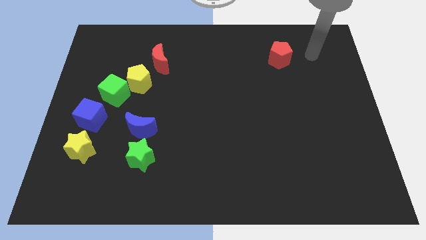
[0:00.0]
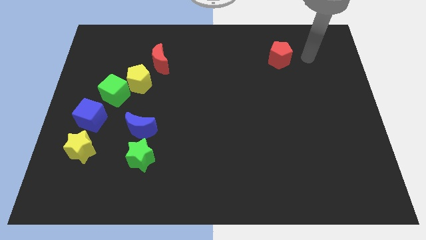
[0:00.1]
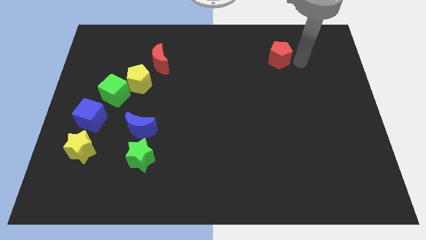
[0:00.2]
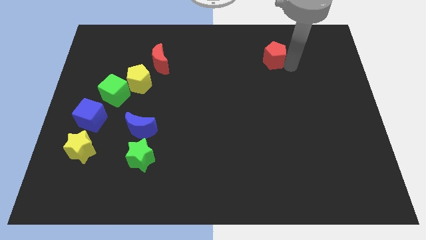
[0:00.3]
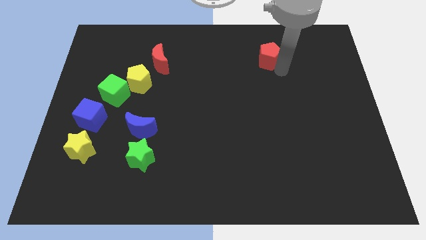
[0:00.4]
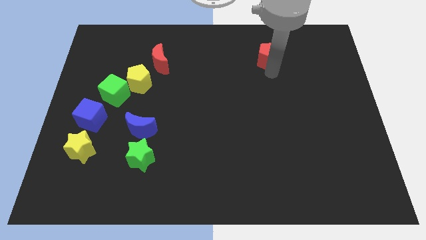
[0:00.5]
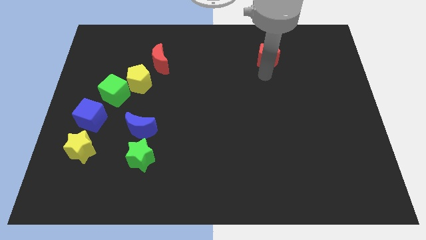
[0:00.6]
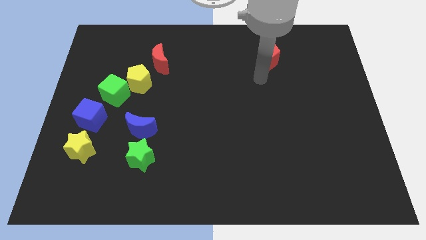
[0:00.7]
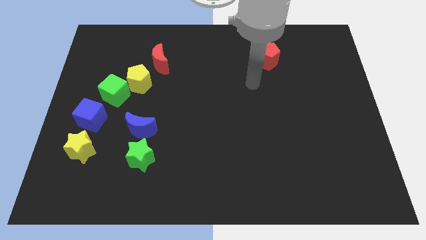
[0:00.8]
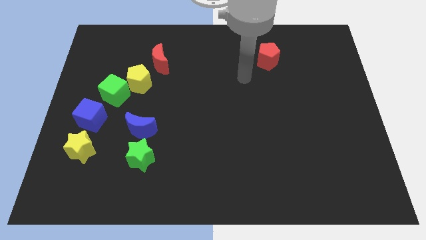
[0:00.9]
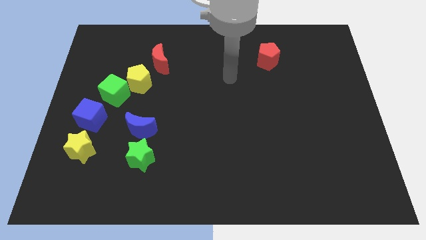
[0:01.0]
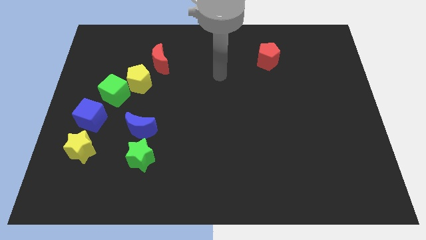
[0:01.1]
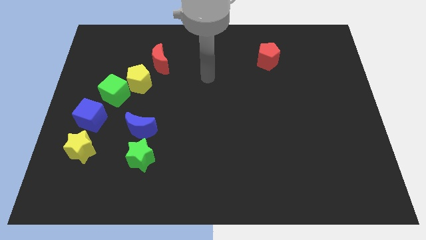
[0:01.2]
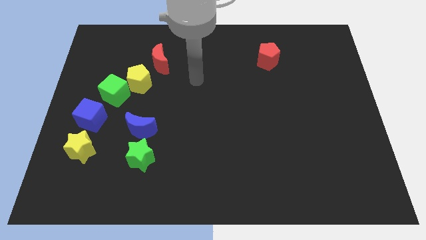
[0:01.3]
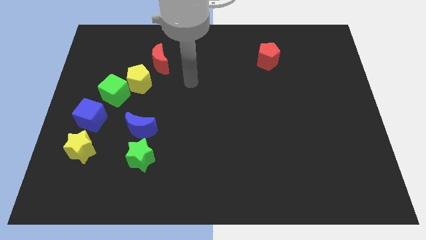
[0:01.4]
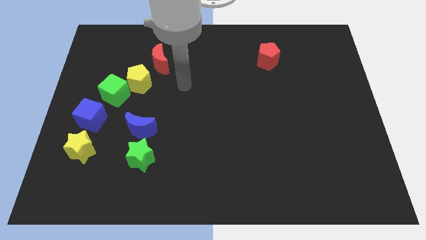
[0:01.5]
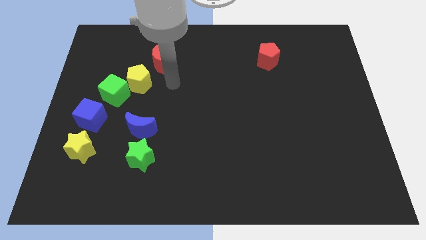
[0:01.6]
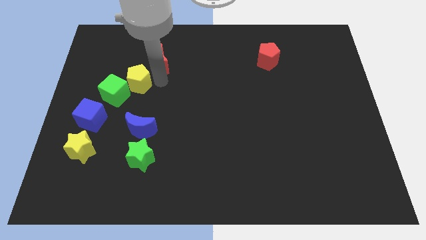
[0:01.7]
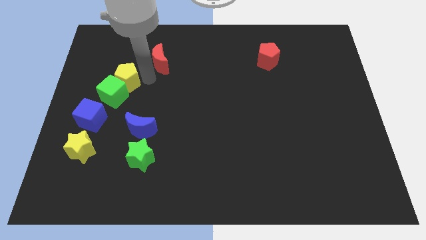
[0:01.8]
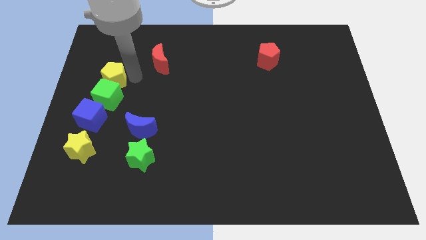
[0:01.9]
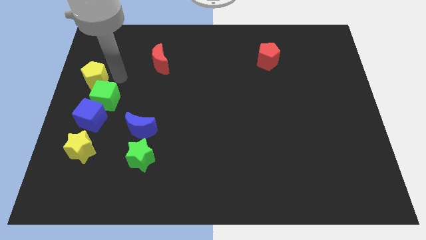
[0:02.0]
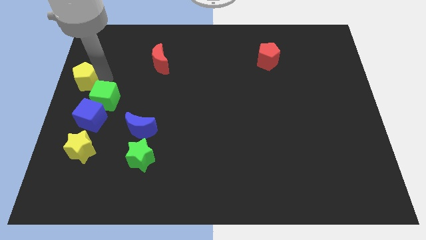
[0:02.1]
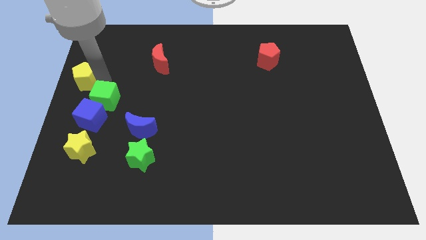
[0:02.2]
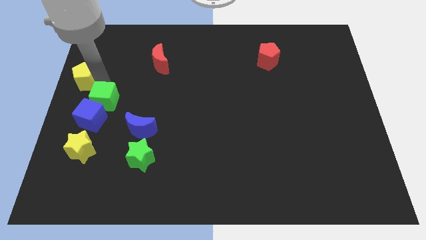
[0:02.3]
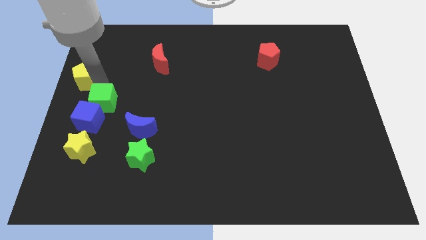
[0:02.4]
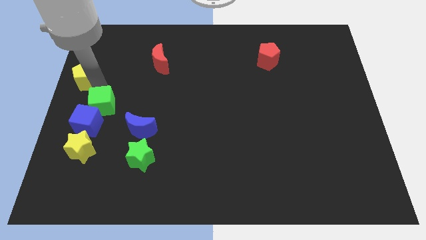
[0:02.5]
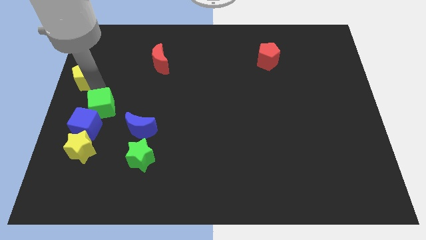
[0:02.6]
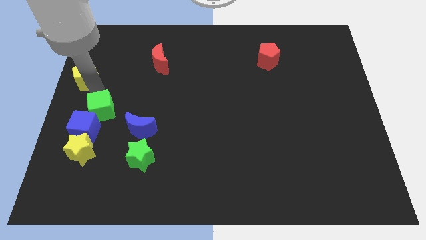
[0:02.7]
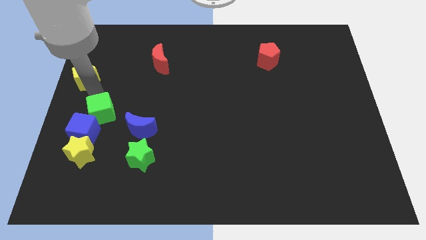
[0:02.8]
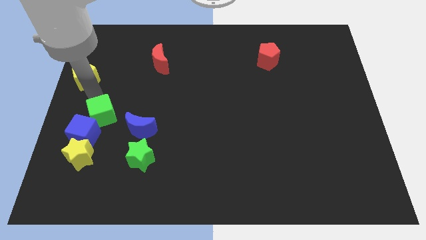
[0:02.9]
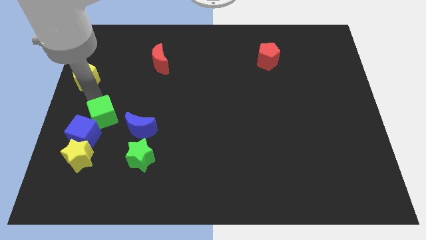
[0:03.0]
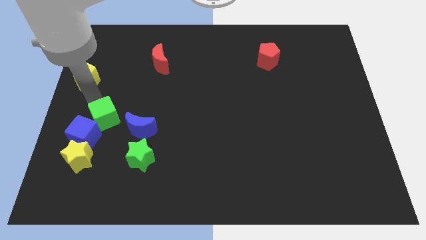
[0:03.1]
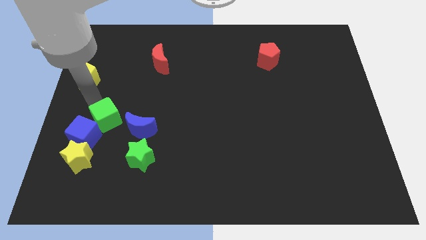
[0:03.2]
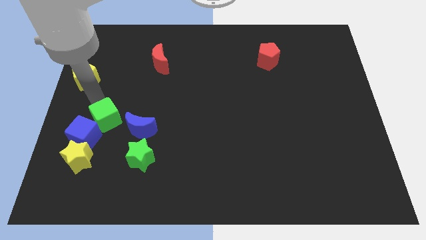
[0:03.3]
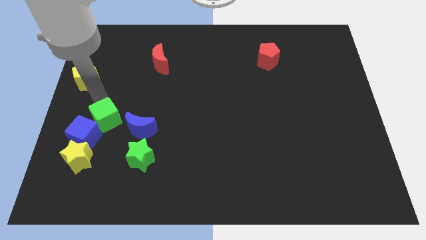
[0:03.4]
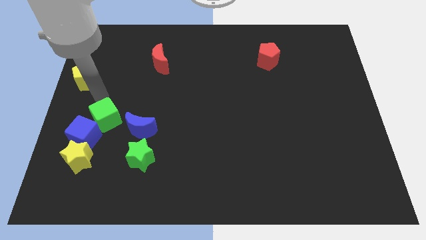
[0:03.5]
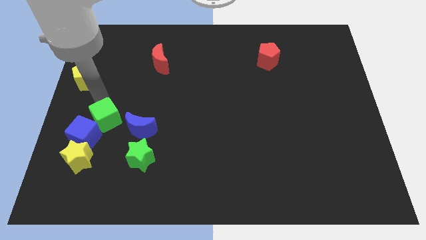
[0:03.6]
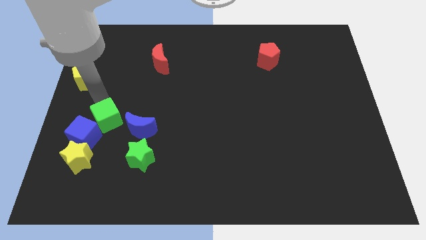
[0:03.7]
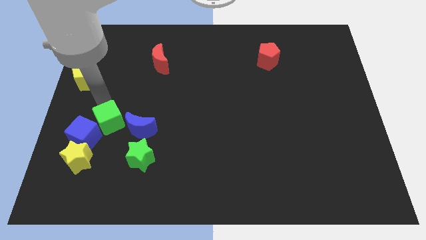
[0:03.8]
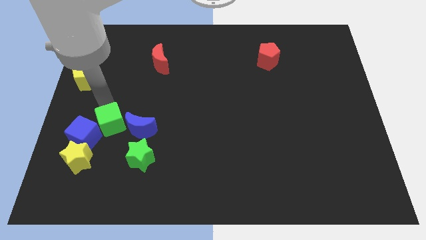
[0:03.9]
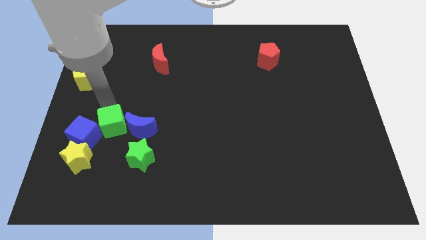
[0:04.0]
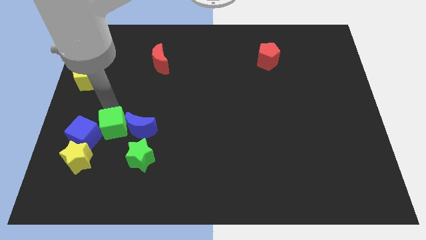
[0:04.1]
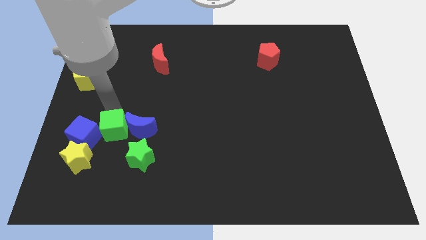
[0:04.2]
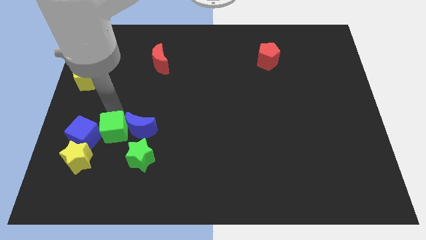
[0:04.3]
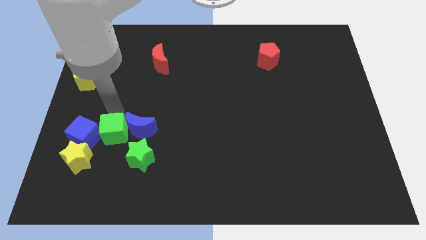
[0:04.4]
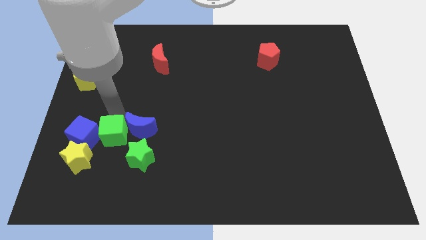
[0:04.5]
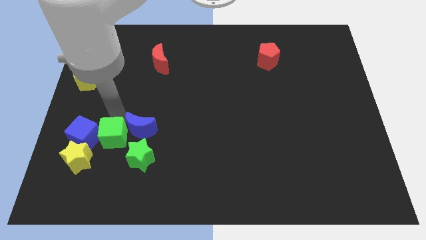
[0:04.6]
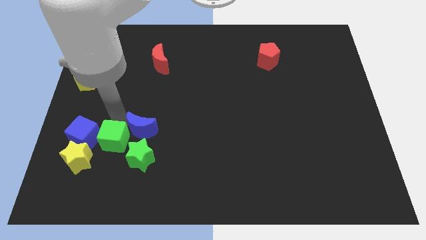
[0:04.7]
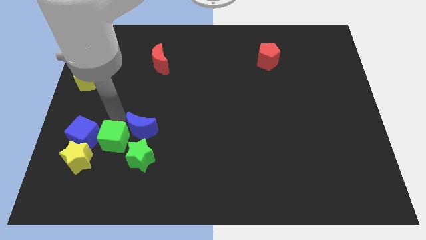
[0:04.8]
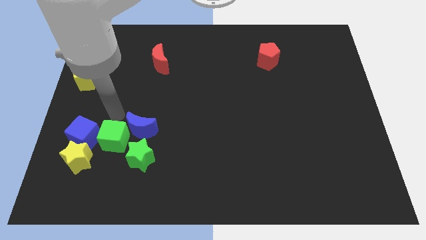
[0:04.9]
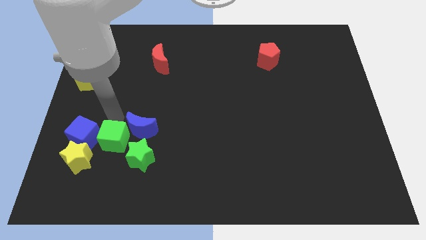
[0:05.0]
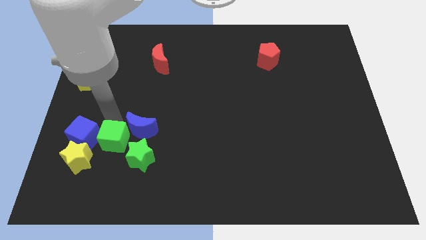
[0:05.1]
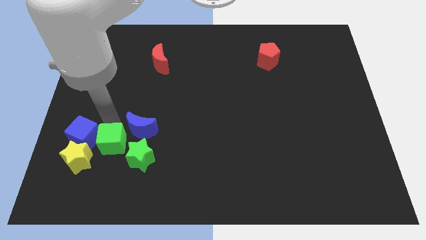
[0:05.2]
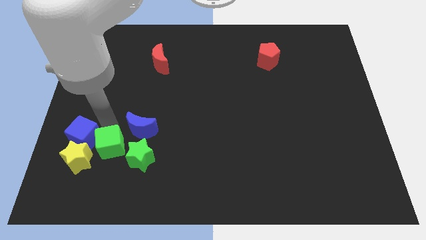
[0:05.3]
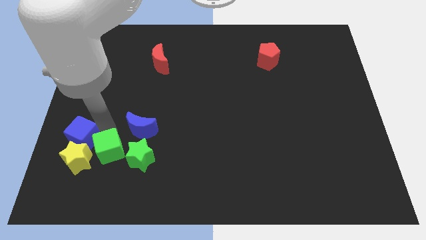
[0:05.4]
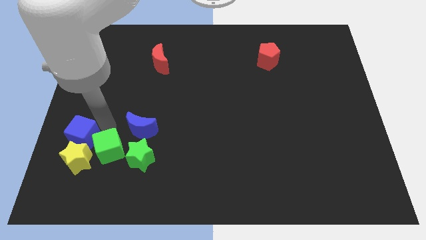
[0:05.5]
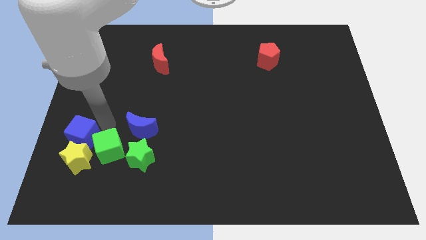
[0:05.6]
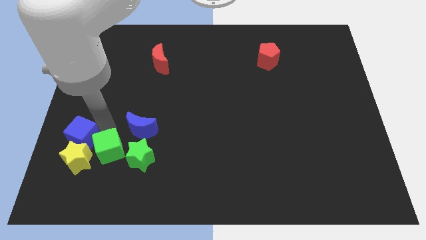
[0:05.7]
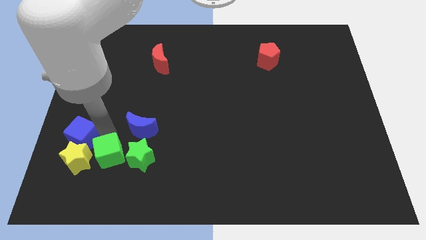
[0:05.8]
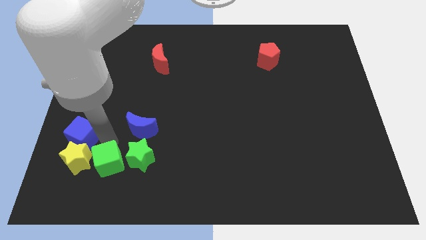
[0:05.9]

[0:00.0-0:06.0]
move the green cube to the bottom left of the green star

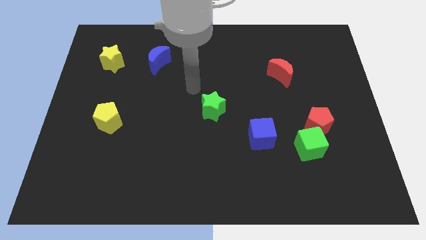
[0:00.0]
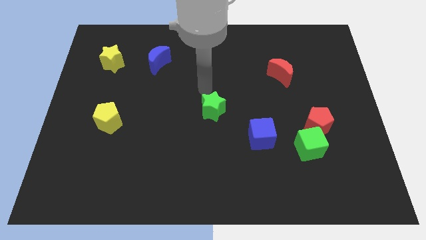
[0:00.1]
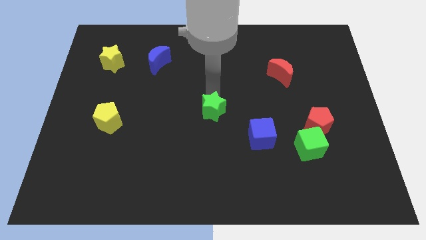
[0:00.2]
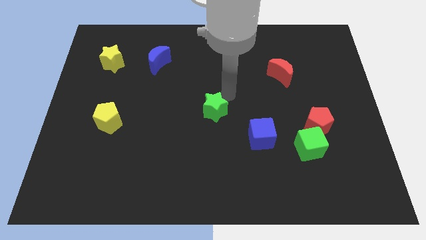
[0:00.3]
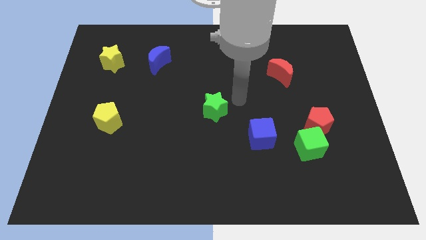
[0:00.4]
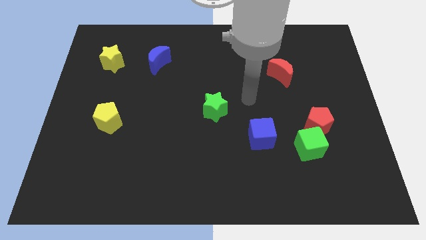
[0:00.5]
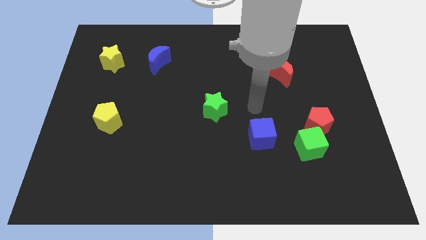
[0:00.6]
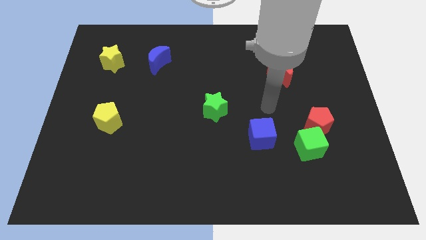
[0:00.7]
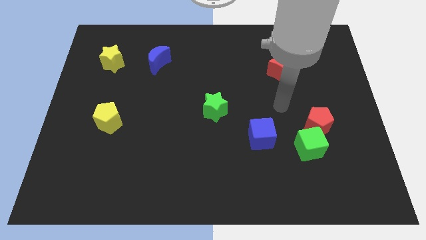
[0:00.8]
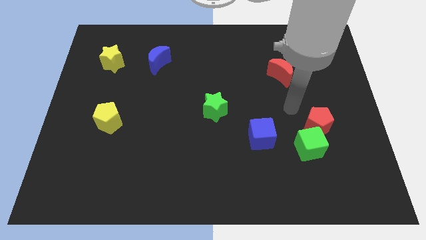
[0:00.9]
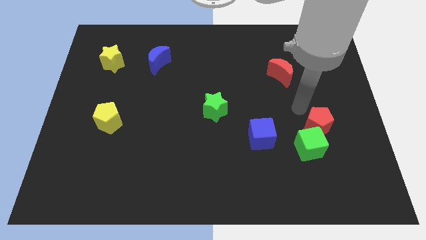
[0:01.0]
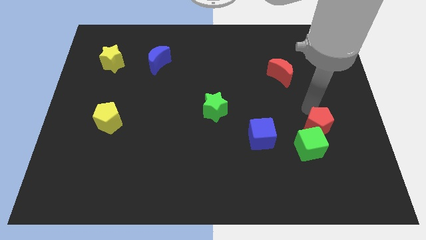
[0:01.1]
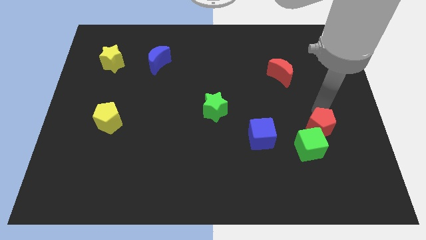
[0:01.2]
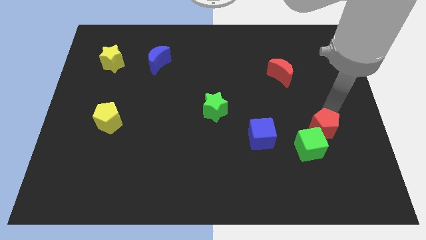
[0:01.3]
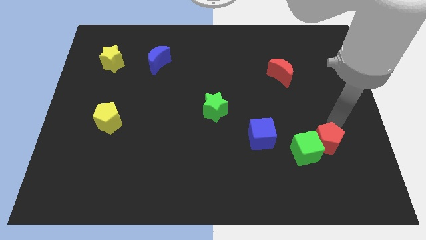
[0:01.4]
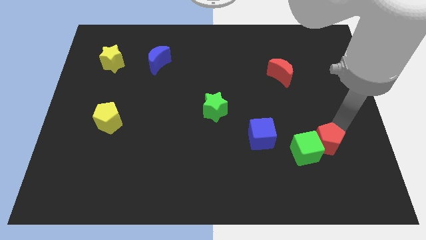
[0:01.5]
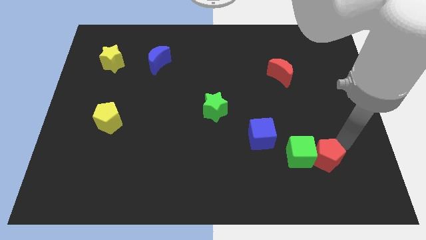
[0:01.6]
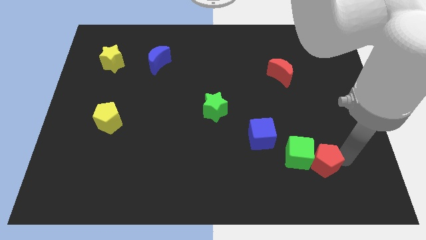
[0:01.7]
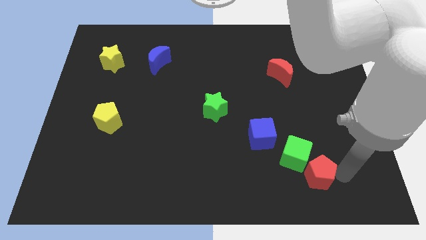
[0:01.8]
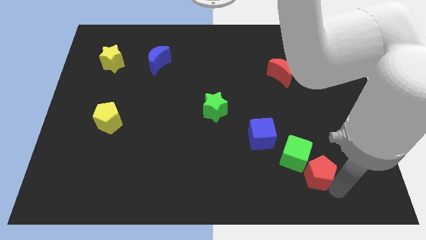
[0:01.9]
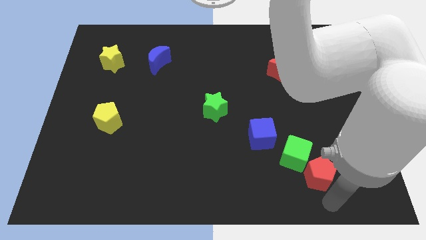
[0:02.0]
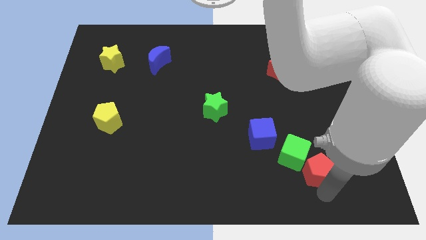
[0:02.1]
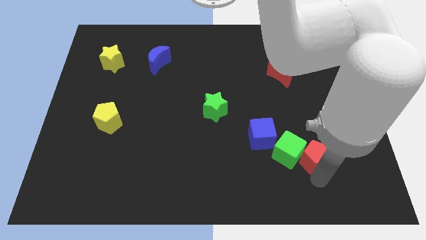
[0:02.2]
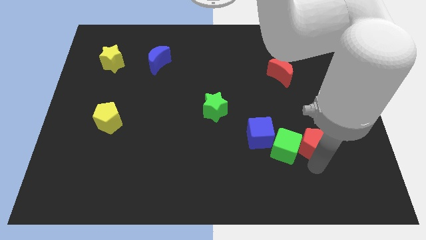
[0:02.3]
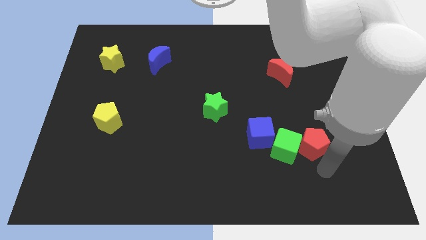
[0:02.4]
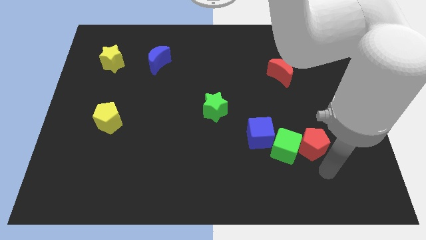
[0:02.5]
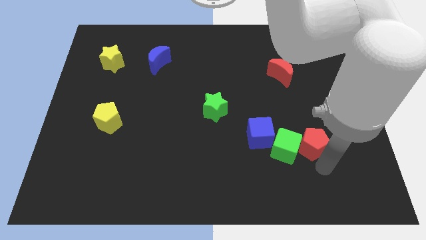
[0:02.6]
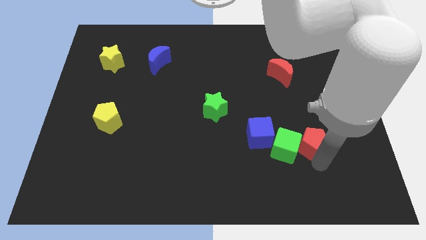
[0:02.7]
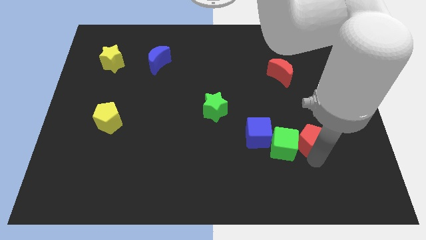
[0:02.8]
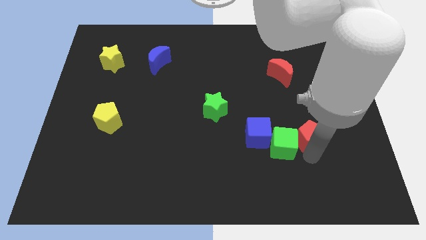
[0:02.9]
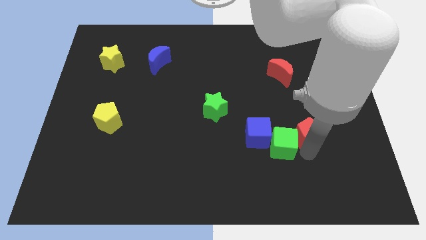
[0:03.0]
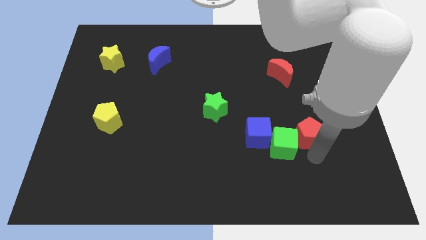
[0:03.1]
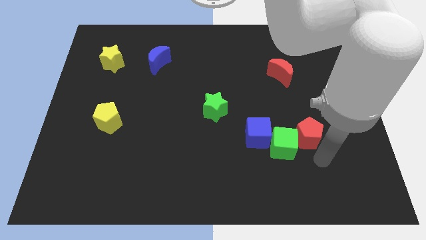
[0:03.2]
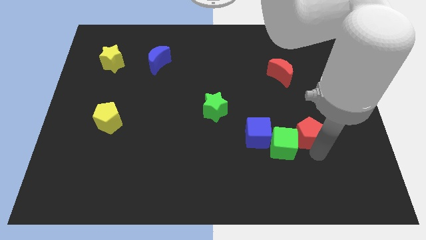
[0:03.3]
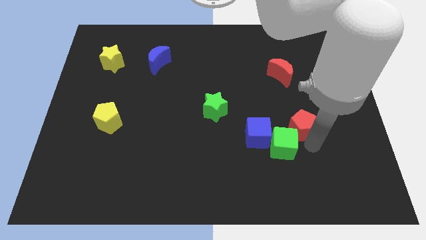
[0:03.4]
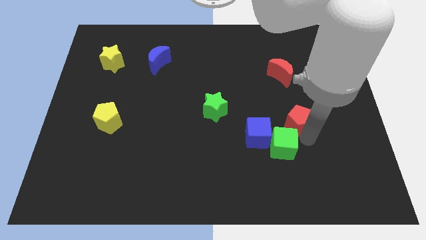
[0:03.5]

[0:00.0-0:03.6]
slide the red pentagon to the bottom of the red moon
